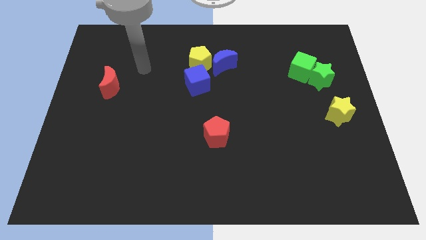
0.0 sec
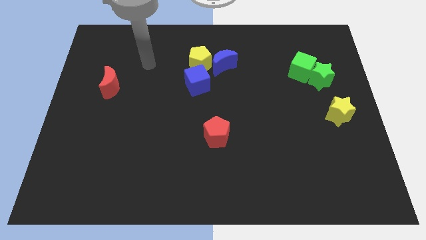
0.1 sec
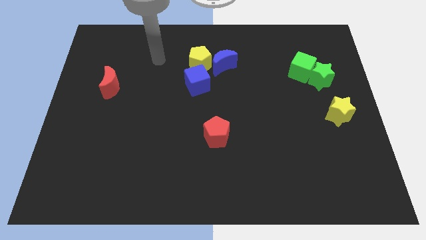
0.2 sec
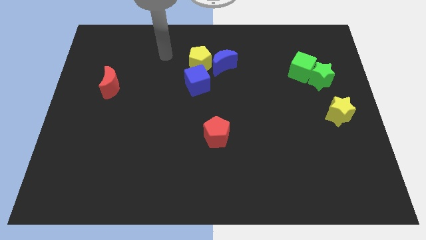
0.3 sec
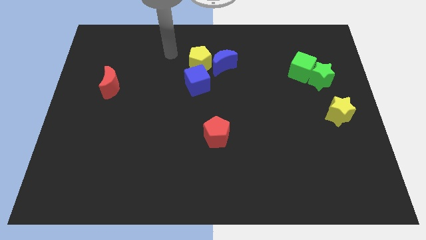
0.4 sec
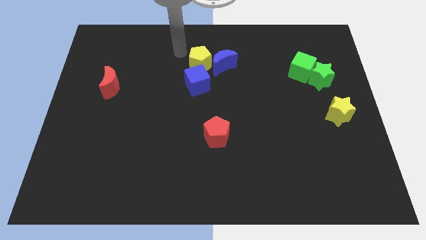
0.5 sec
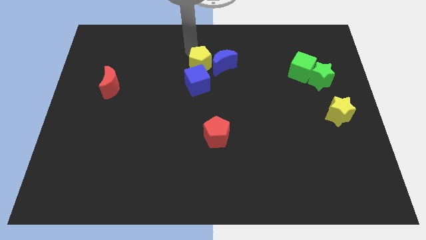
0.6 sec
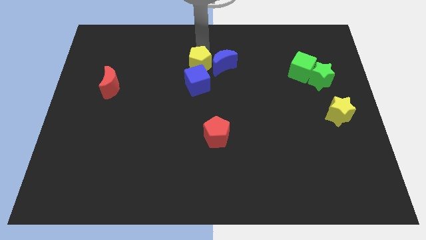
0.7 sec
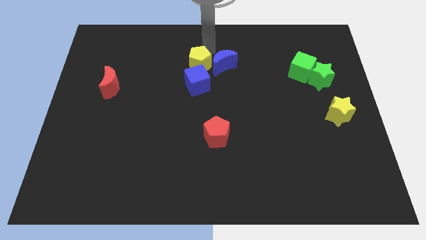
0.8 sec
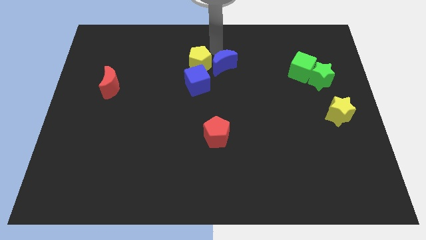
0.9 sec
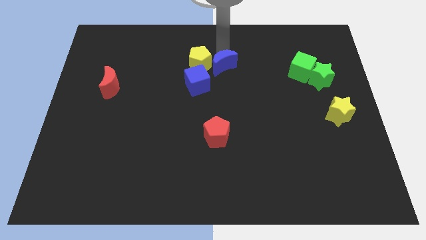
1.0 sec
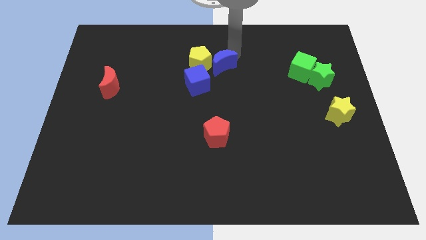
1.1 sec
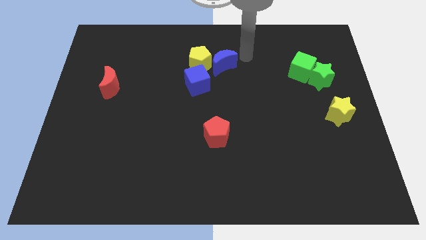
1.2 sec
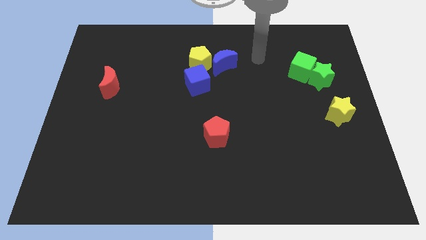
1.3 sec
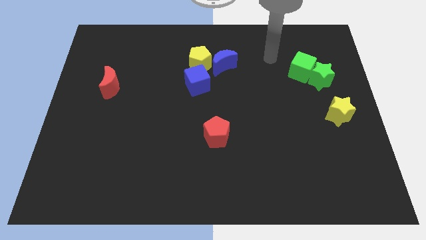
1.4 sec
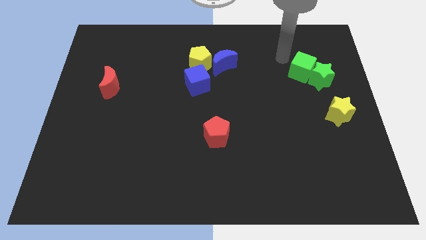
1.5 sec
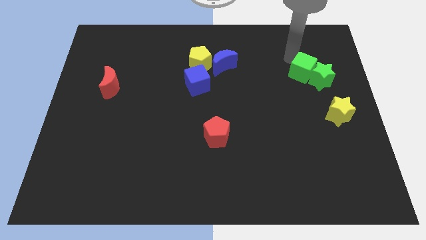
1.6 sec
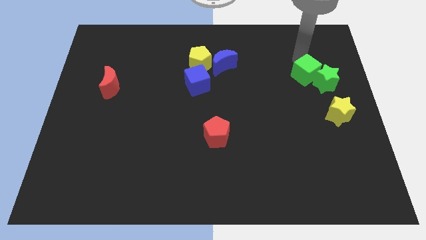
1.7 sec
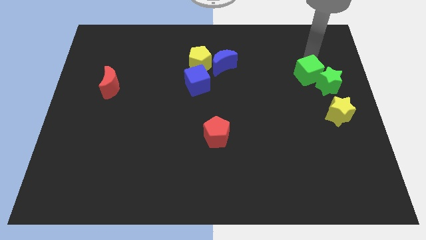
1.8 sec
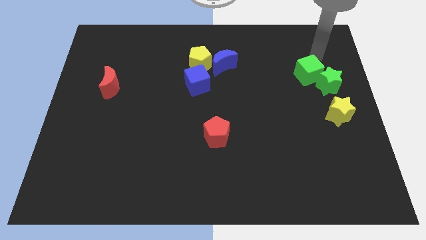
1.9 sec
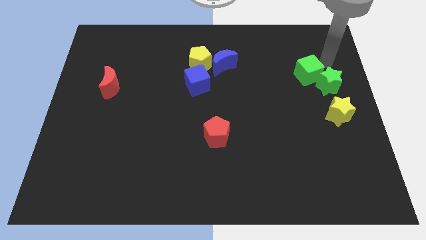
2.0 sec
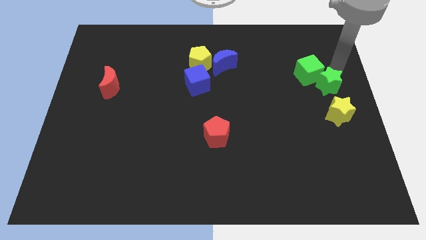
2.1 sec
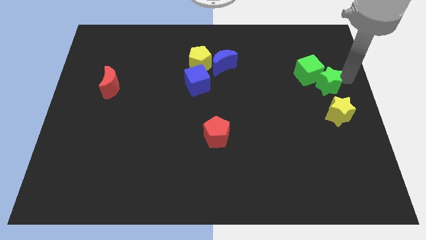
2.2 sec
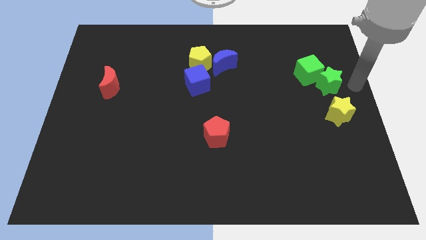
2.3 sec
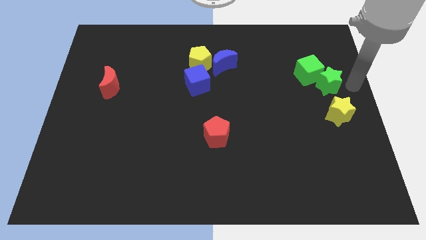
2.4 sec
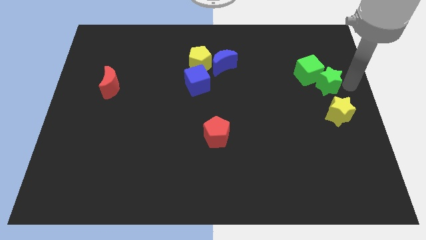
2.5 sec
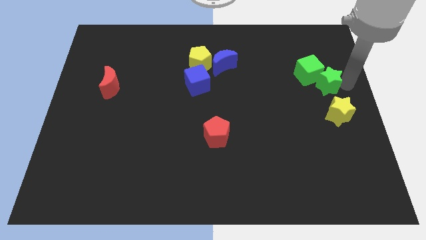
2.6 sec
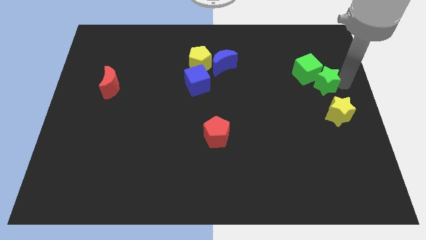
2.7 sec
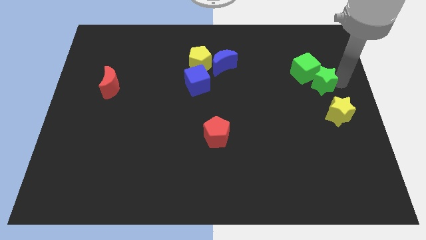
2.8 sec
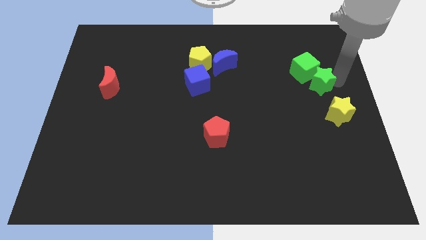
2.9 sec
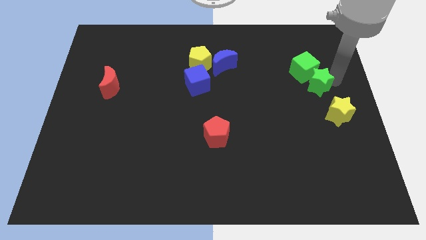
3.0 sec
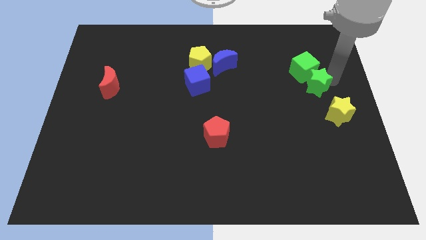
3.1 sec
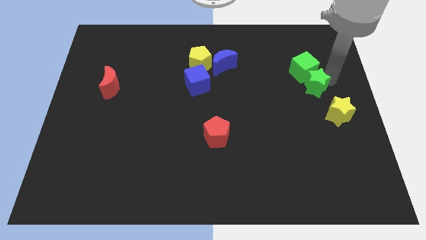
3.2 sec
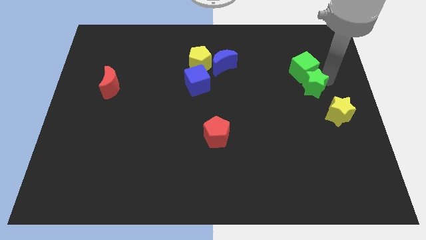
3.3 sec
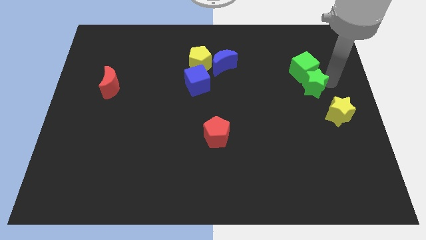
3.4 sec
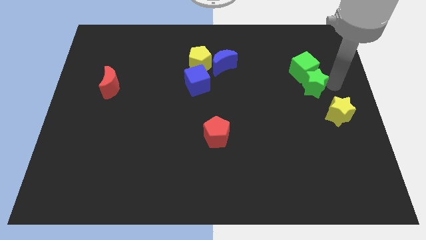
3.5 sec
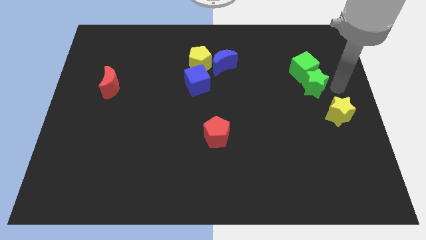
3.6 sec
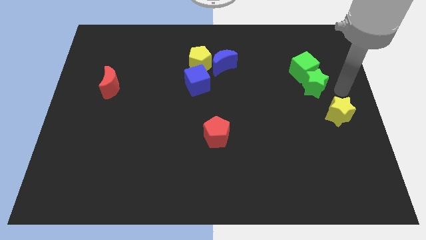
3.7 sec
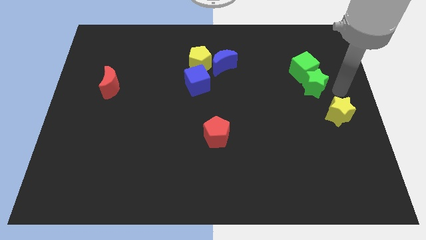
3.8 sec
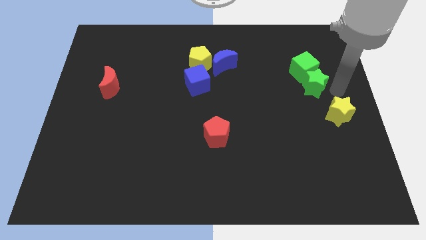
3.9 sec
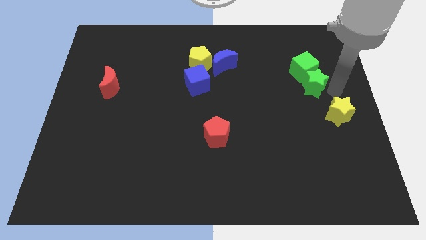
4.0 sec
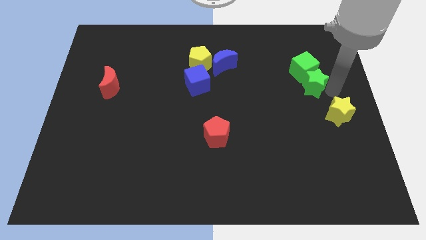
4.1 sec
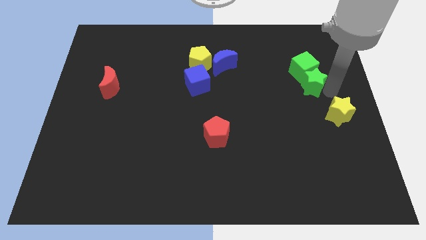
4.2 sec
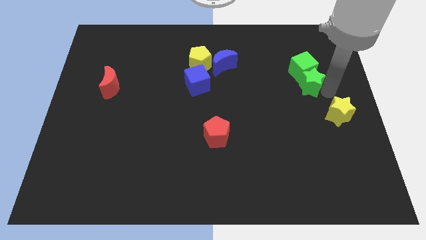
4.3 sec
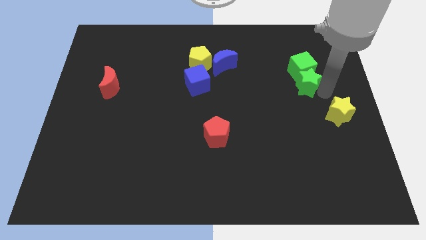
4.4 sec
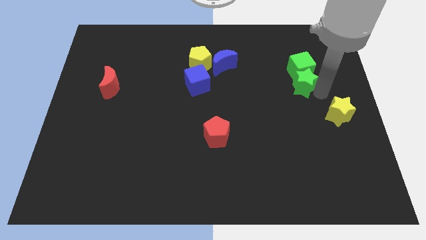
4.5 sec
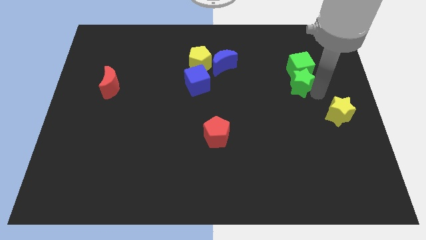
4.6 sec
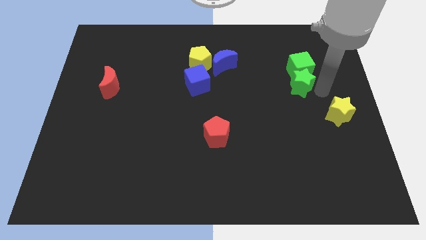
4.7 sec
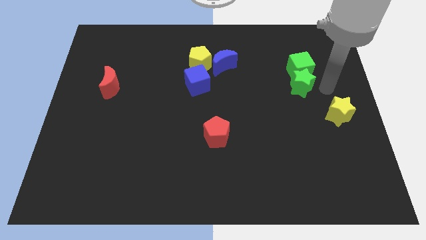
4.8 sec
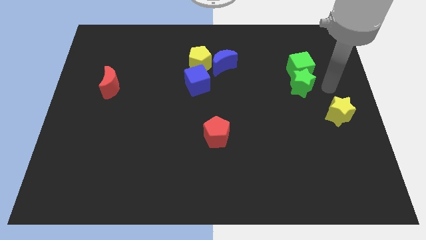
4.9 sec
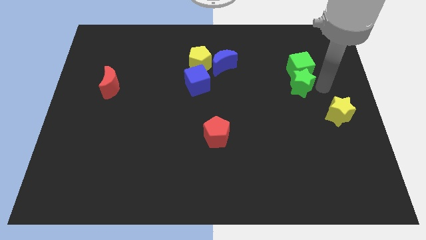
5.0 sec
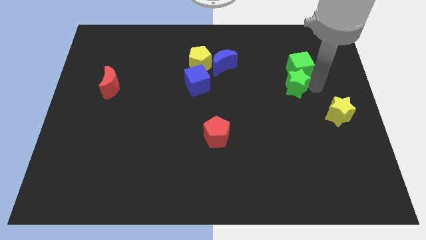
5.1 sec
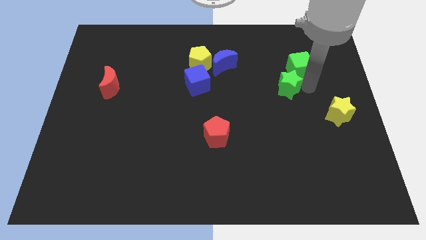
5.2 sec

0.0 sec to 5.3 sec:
slightly push the green star left

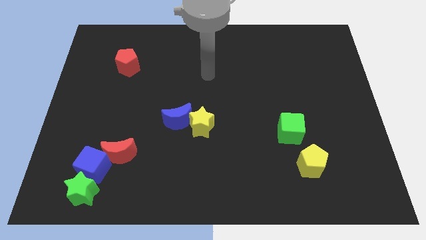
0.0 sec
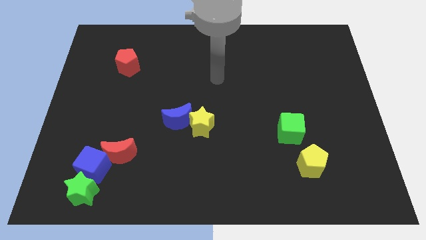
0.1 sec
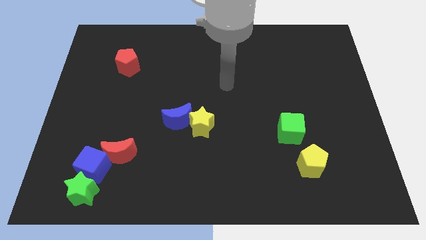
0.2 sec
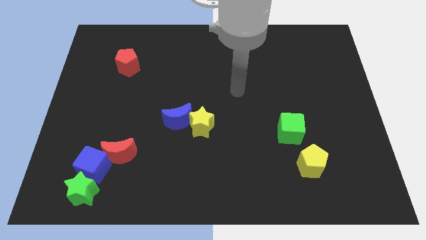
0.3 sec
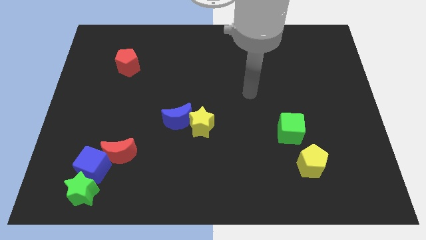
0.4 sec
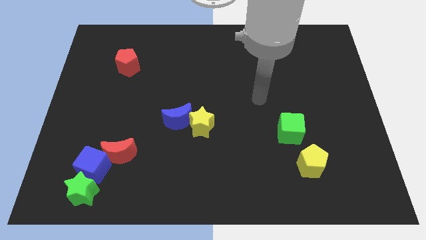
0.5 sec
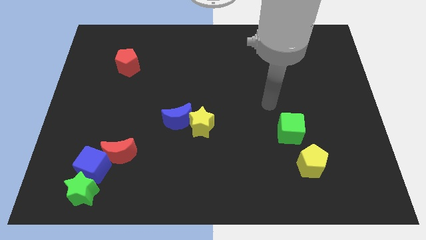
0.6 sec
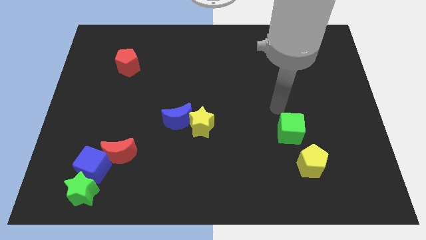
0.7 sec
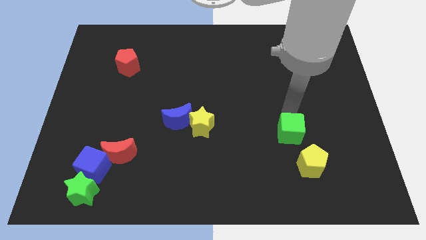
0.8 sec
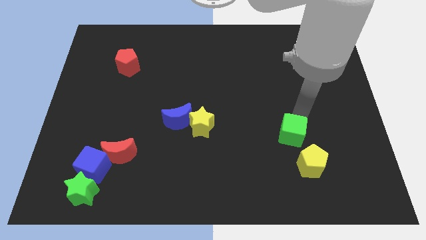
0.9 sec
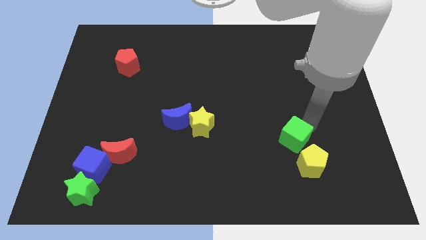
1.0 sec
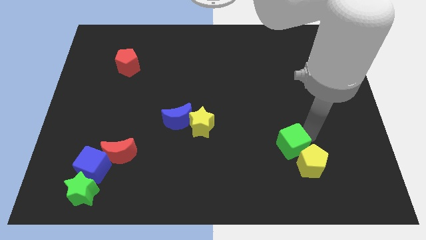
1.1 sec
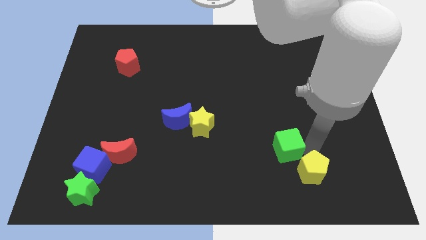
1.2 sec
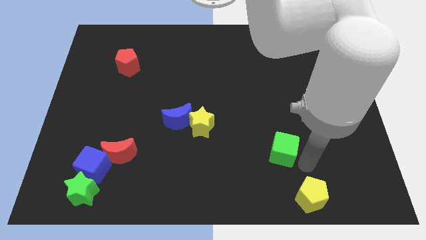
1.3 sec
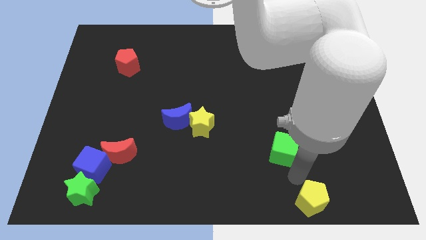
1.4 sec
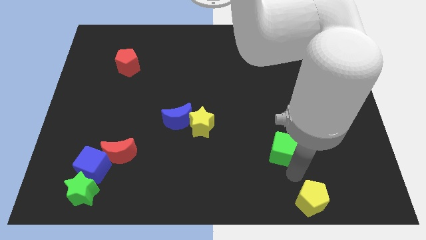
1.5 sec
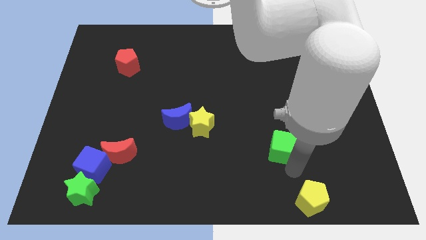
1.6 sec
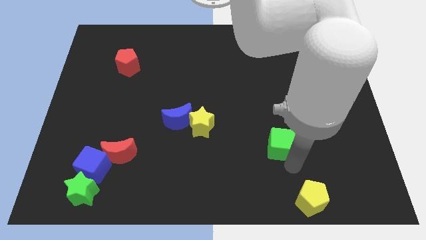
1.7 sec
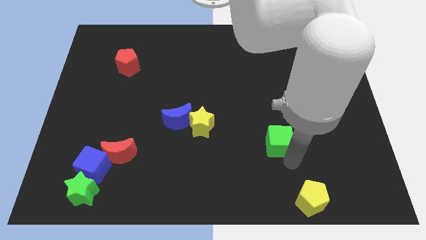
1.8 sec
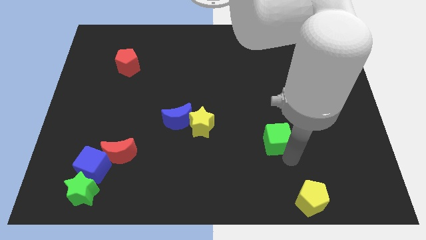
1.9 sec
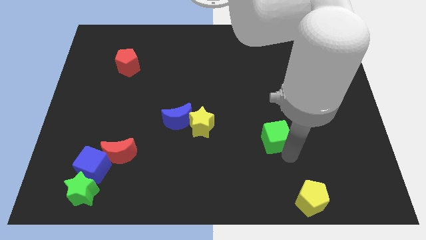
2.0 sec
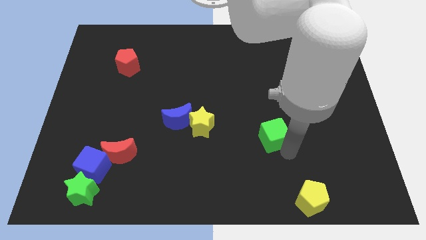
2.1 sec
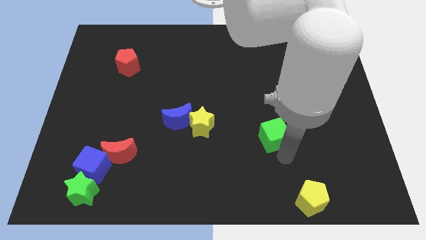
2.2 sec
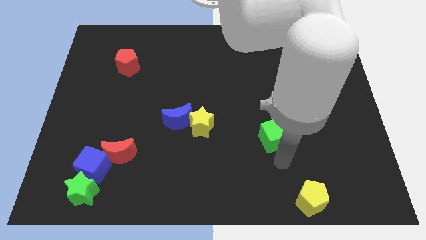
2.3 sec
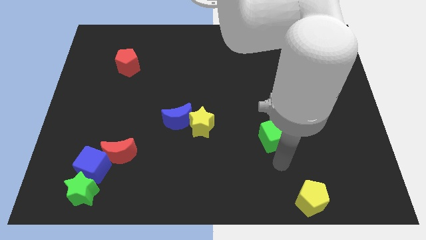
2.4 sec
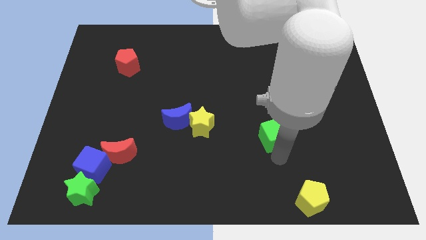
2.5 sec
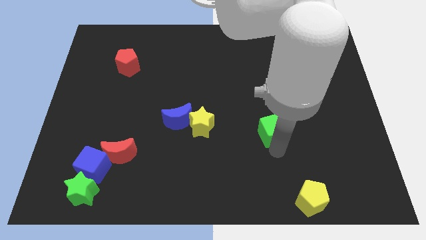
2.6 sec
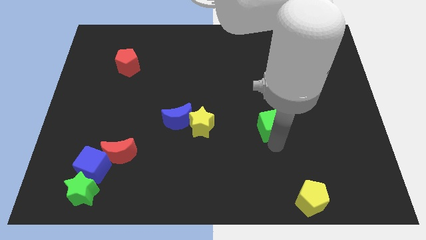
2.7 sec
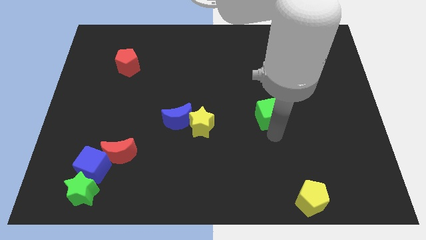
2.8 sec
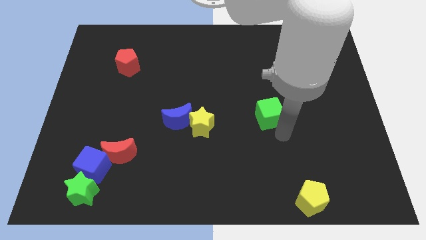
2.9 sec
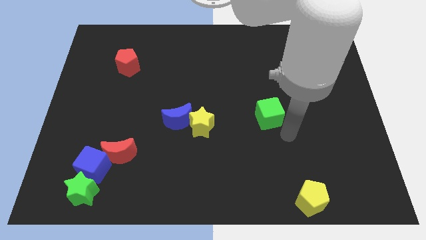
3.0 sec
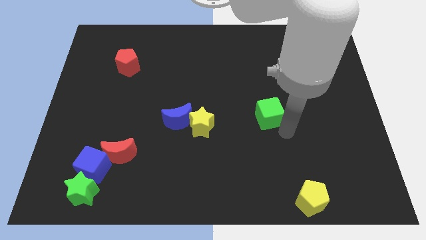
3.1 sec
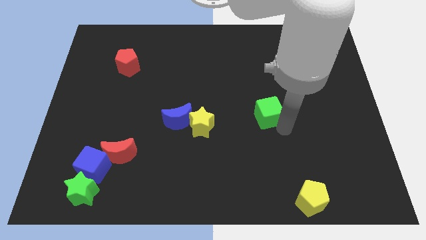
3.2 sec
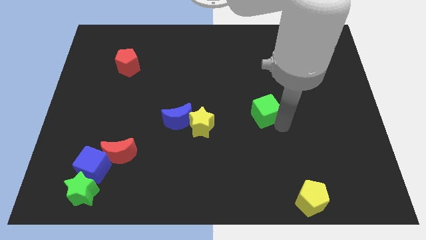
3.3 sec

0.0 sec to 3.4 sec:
slightly slide the green cube up and then to the left
